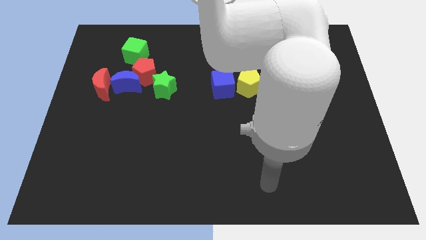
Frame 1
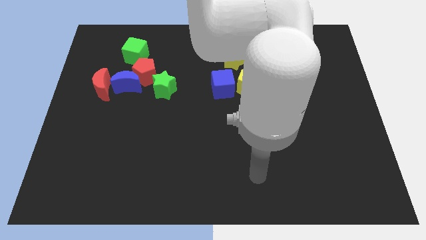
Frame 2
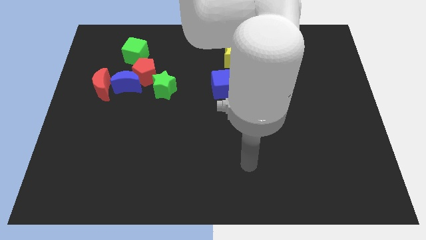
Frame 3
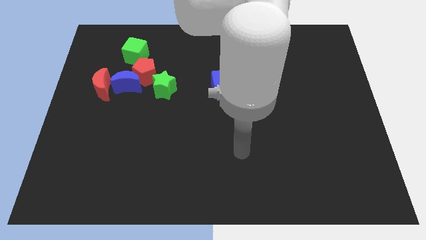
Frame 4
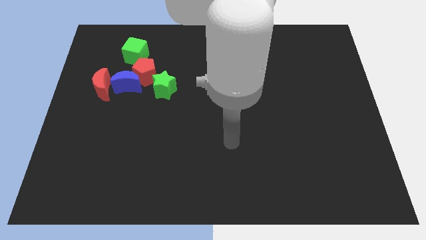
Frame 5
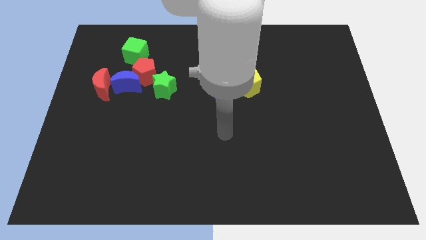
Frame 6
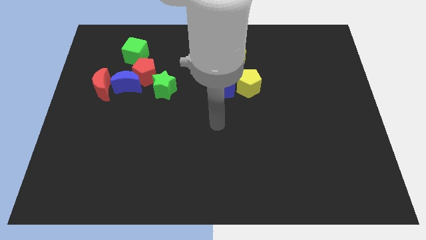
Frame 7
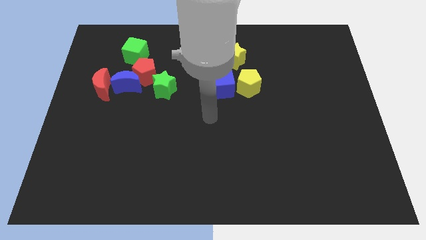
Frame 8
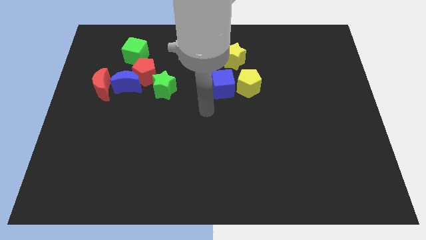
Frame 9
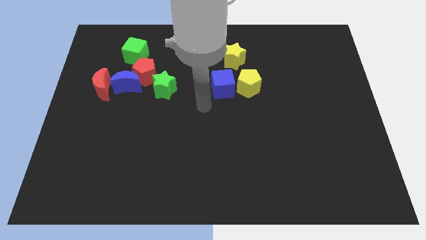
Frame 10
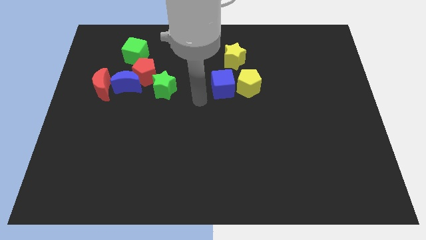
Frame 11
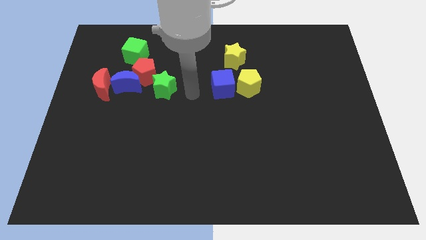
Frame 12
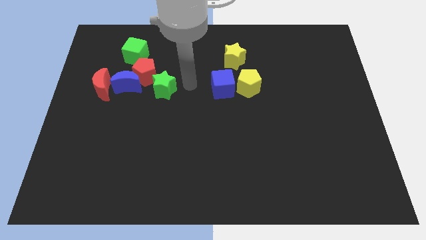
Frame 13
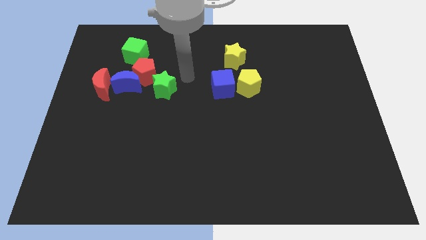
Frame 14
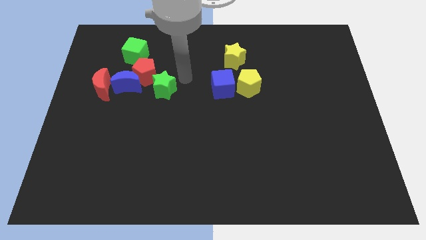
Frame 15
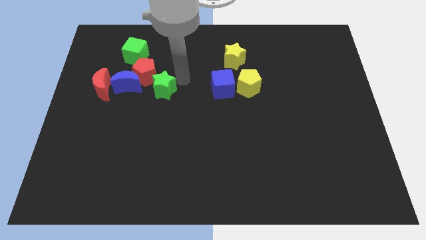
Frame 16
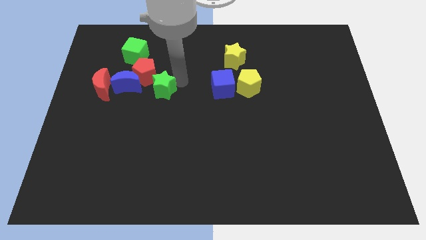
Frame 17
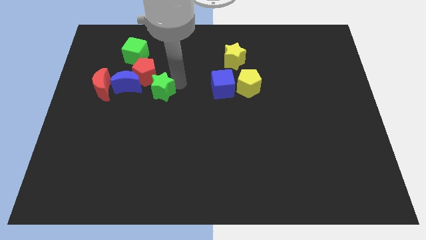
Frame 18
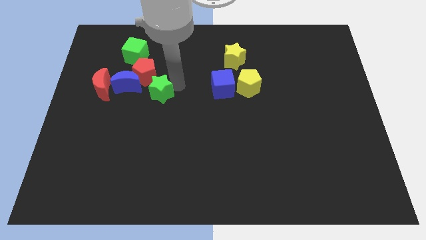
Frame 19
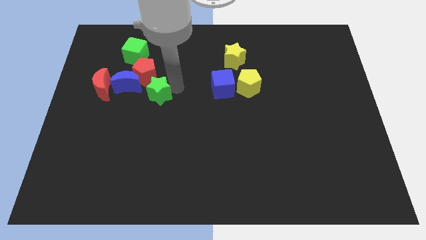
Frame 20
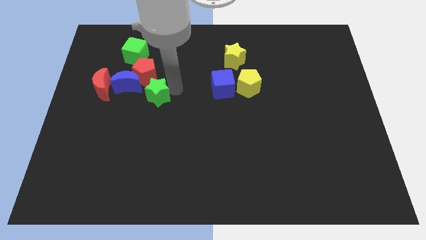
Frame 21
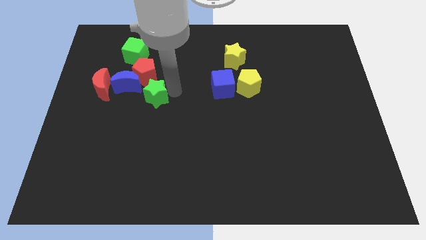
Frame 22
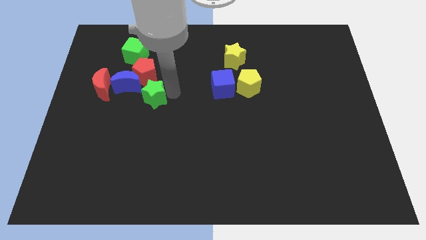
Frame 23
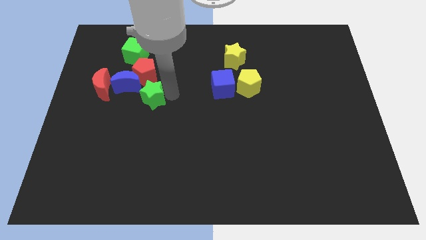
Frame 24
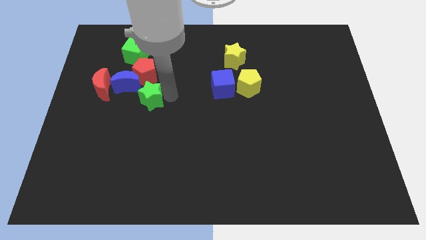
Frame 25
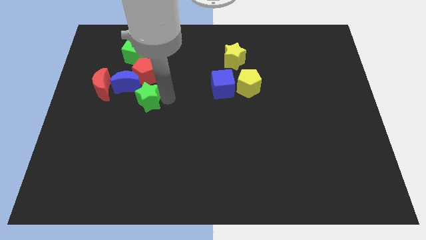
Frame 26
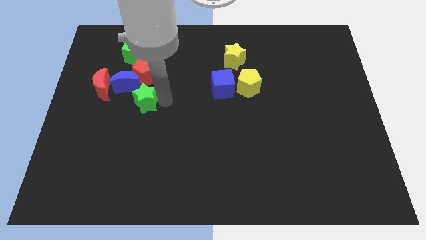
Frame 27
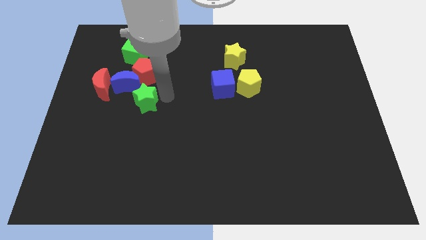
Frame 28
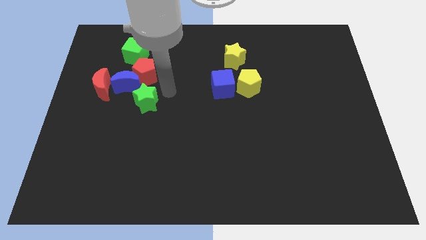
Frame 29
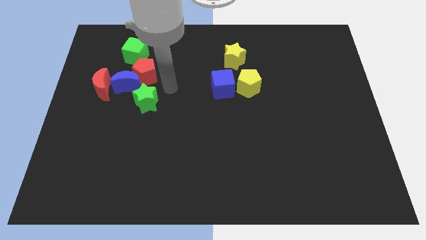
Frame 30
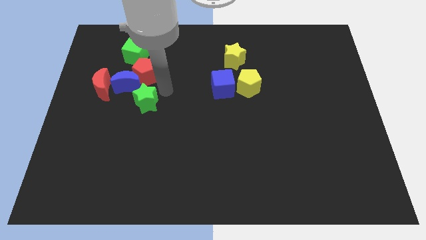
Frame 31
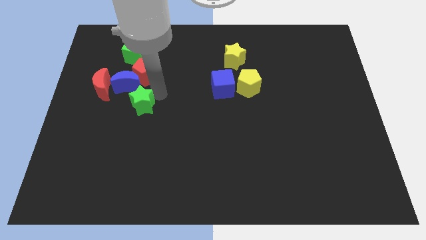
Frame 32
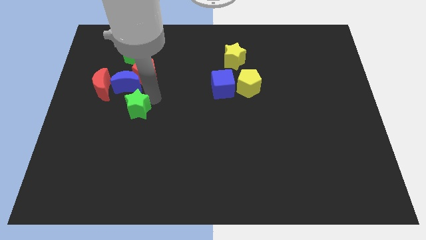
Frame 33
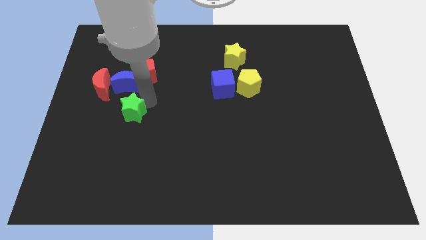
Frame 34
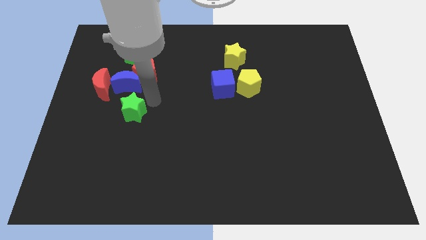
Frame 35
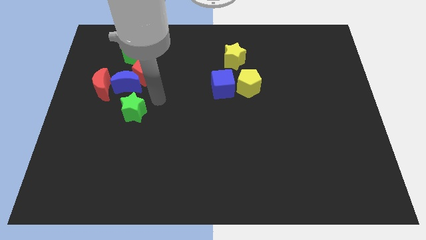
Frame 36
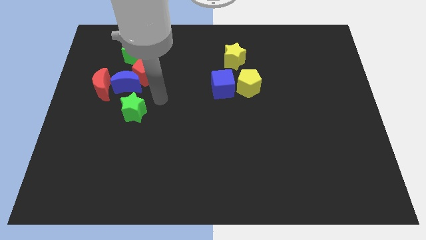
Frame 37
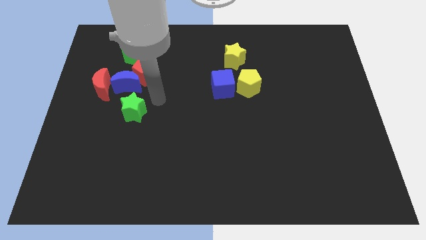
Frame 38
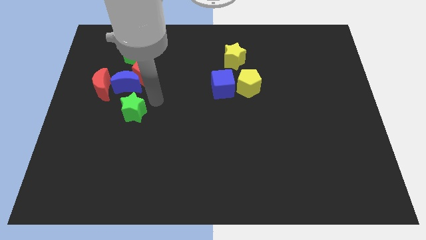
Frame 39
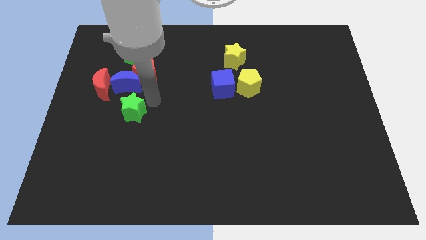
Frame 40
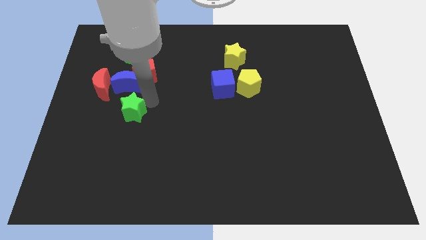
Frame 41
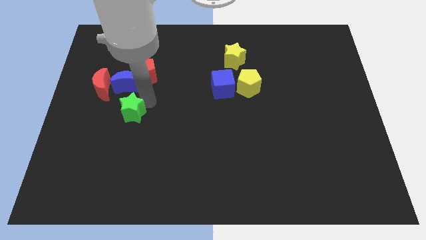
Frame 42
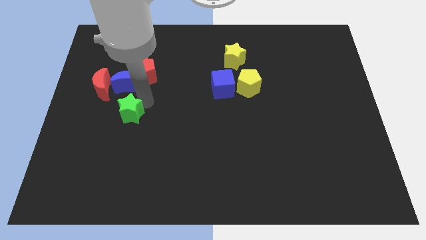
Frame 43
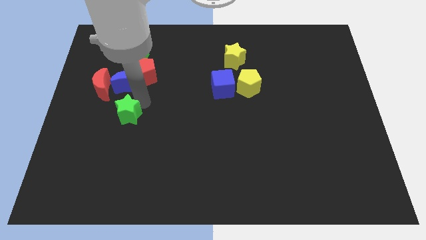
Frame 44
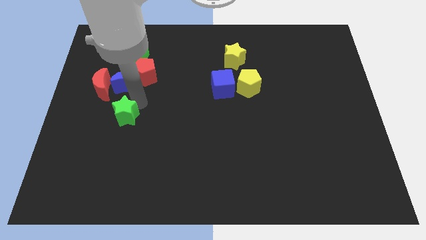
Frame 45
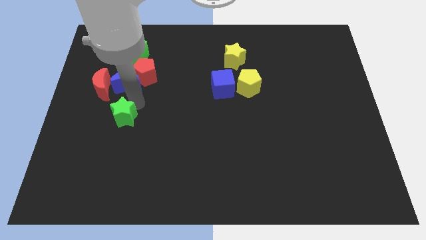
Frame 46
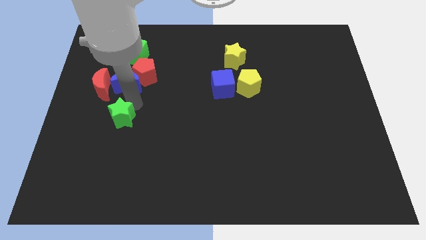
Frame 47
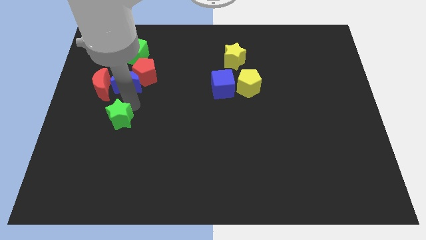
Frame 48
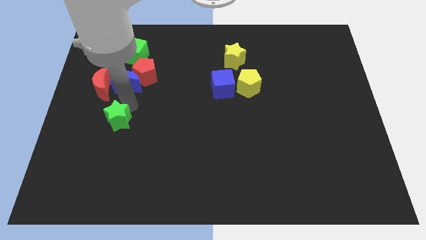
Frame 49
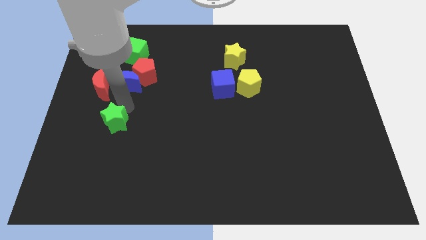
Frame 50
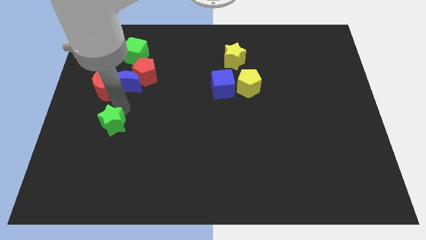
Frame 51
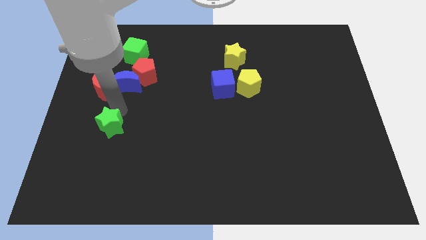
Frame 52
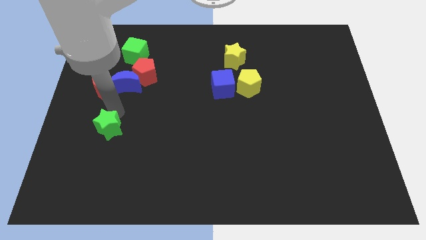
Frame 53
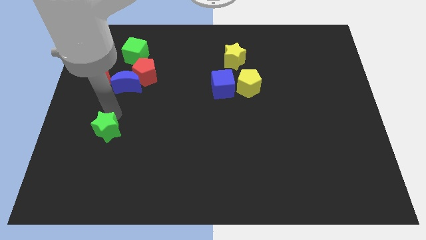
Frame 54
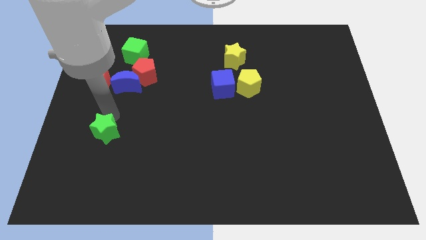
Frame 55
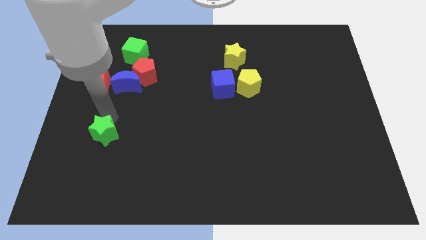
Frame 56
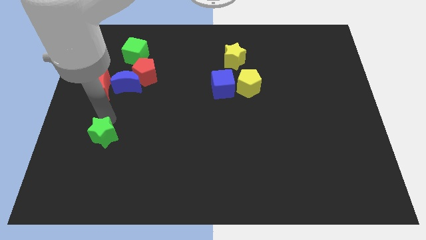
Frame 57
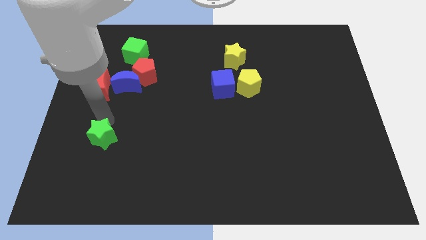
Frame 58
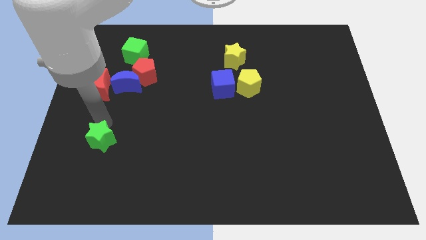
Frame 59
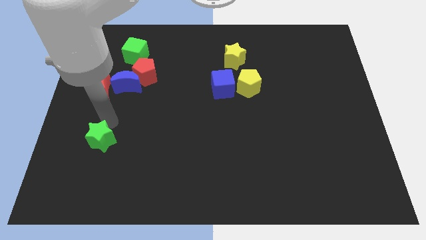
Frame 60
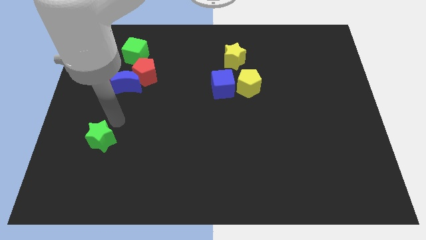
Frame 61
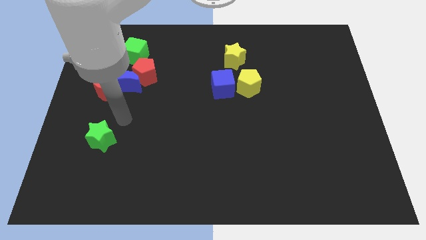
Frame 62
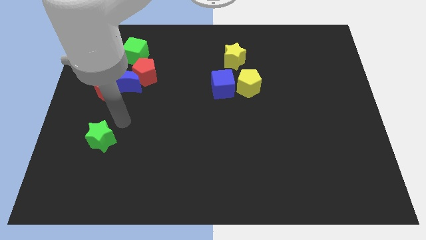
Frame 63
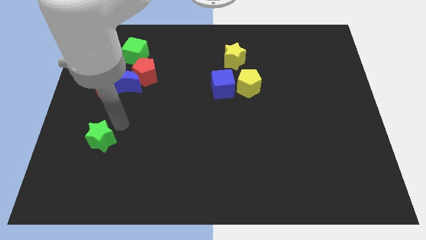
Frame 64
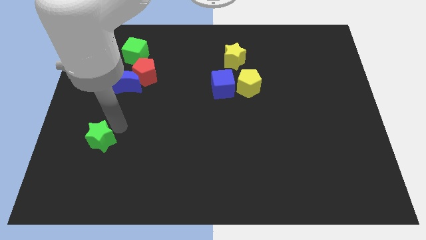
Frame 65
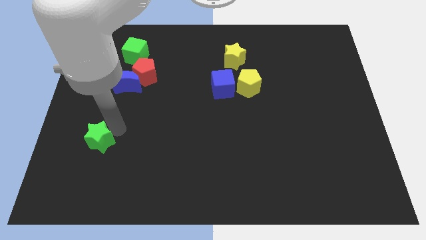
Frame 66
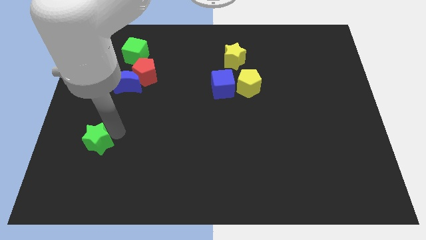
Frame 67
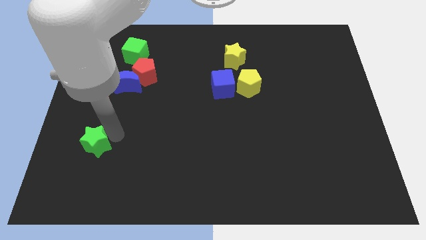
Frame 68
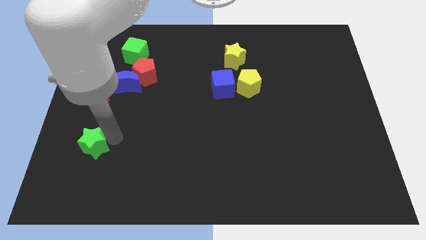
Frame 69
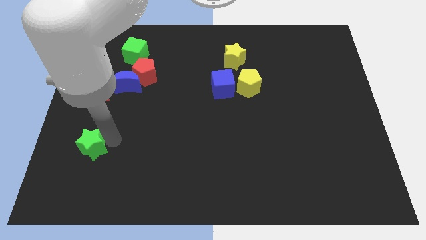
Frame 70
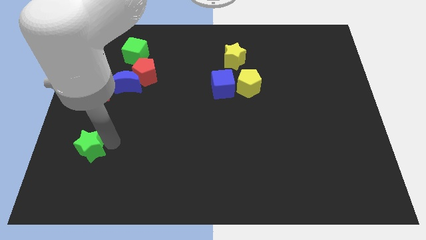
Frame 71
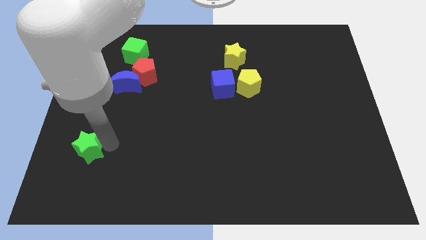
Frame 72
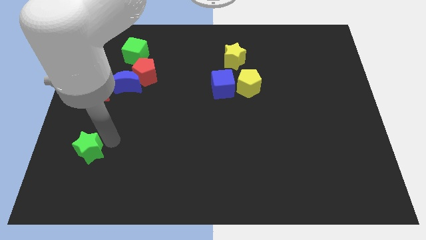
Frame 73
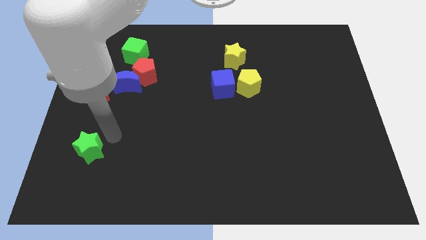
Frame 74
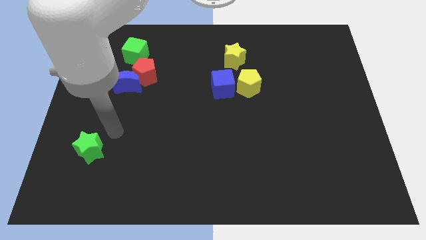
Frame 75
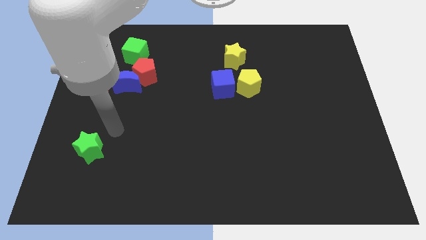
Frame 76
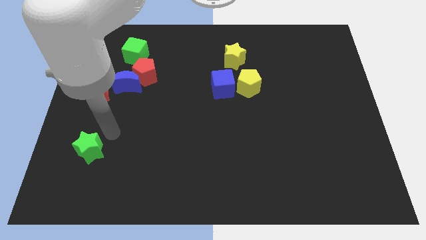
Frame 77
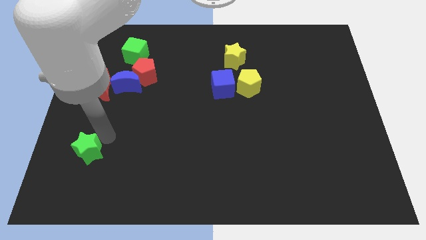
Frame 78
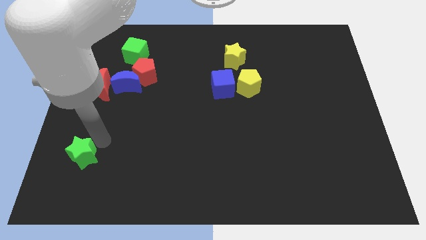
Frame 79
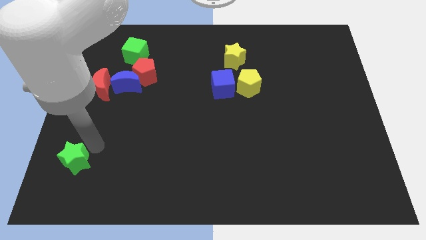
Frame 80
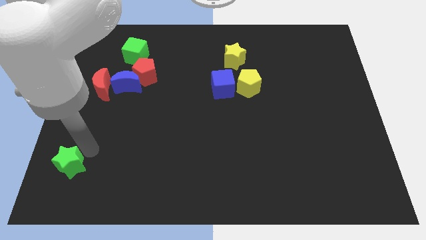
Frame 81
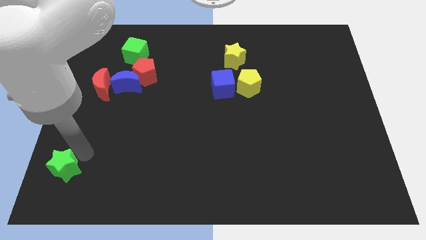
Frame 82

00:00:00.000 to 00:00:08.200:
move the green star to the lower left corner
